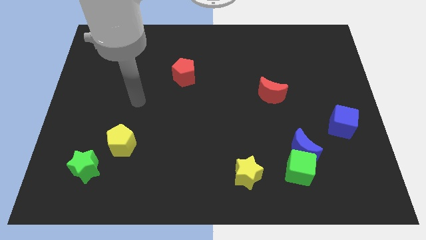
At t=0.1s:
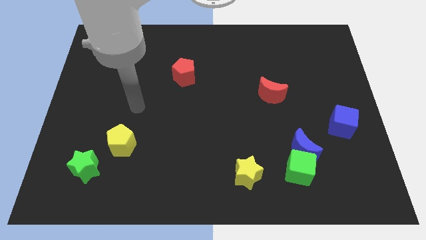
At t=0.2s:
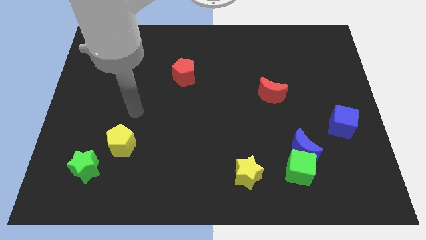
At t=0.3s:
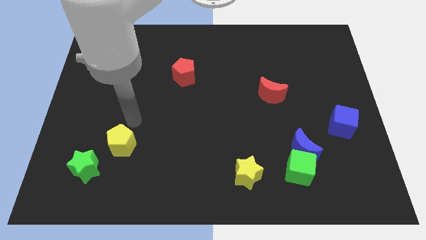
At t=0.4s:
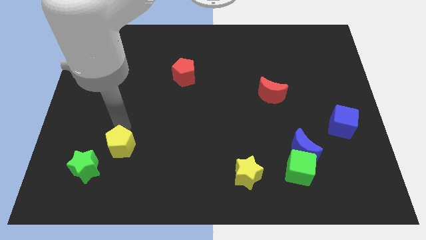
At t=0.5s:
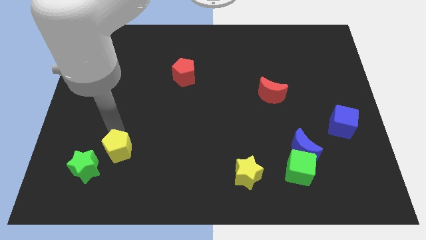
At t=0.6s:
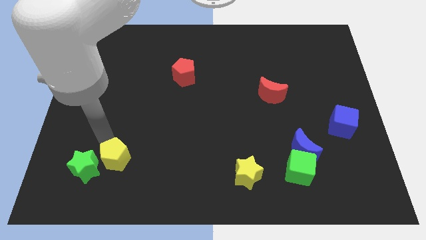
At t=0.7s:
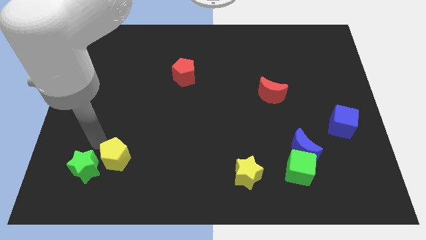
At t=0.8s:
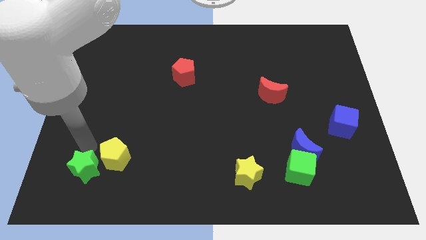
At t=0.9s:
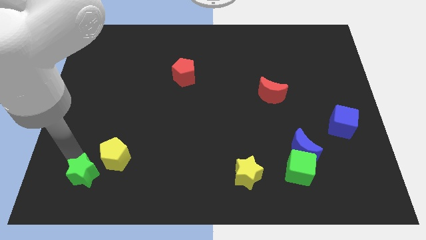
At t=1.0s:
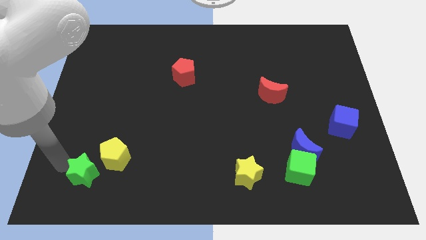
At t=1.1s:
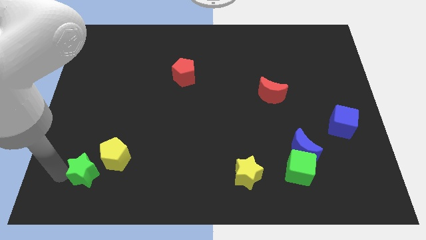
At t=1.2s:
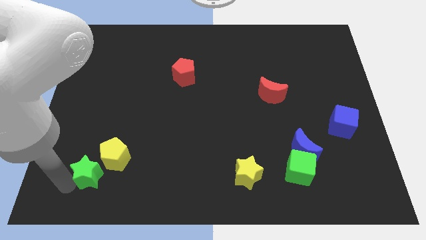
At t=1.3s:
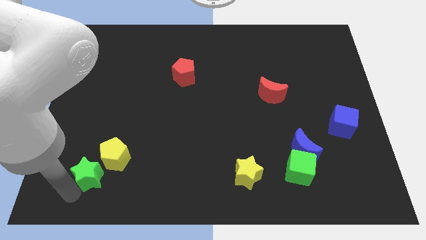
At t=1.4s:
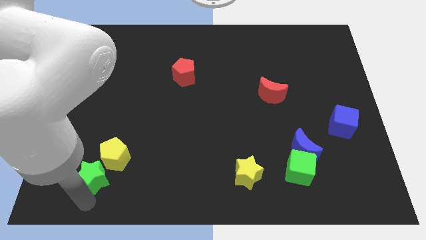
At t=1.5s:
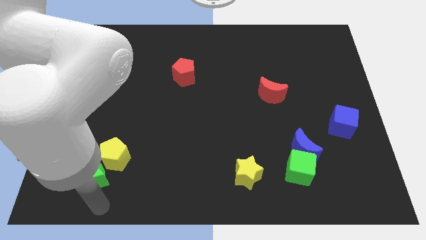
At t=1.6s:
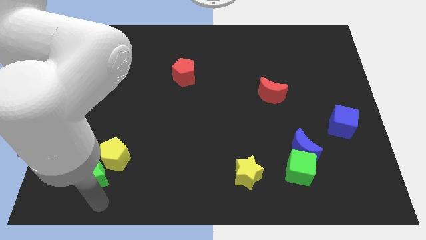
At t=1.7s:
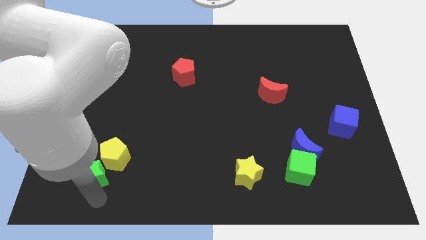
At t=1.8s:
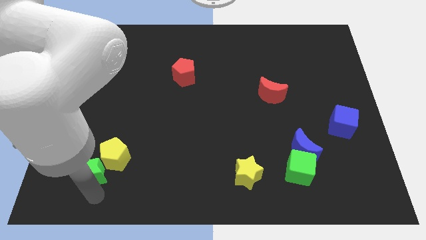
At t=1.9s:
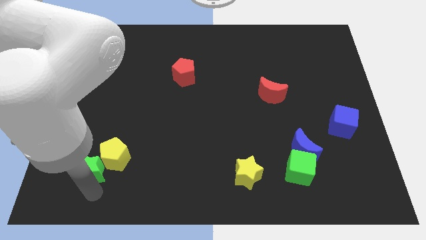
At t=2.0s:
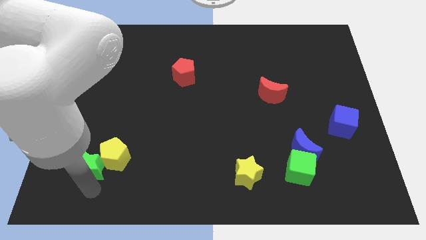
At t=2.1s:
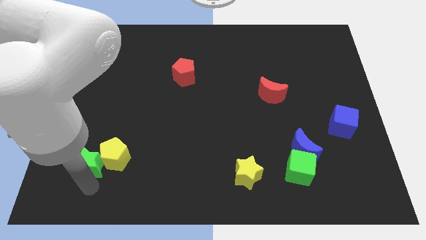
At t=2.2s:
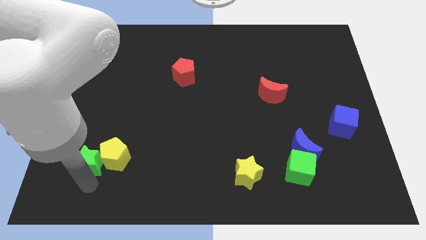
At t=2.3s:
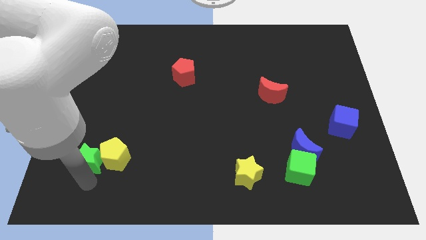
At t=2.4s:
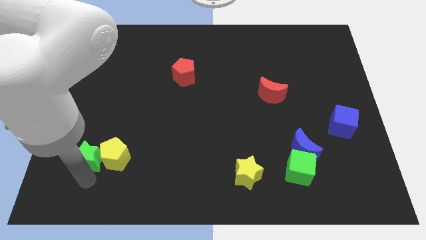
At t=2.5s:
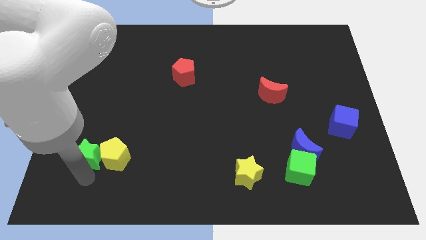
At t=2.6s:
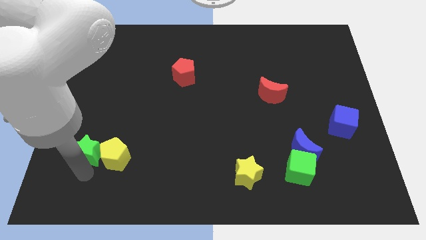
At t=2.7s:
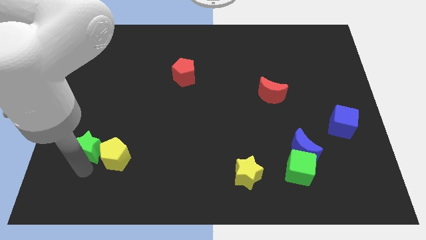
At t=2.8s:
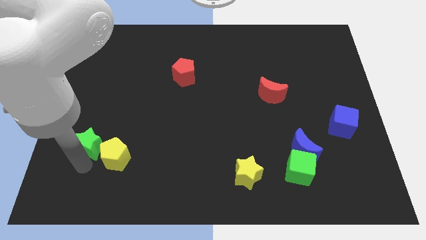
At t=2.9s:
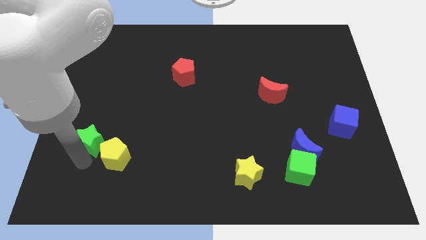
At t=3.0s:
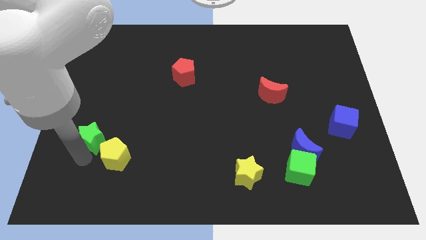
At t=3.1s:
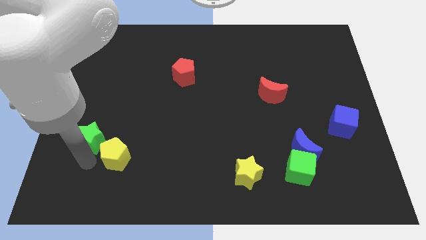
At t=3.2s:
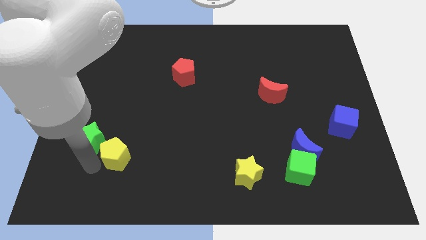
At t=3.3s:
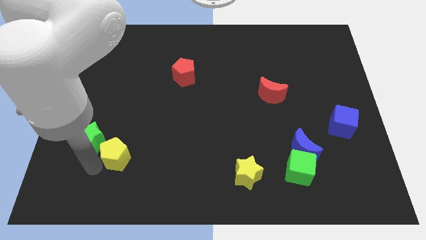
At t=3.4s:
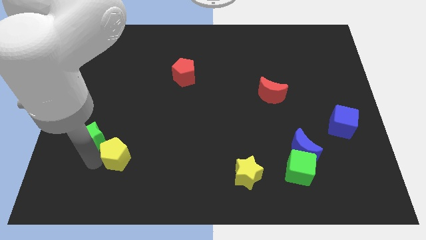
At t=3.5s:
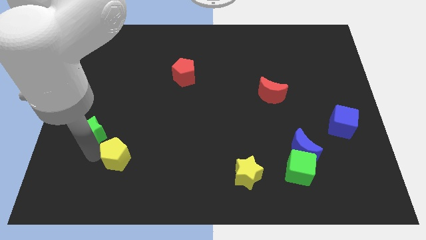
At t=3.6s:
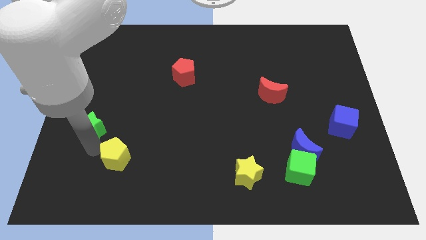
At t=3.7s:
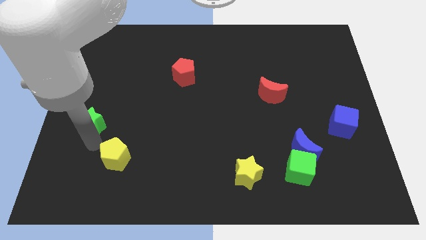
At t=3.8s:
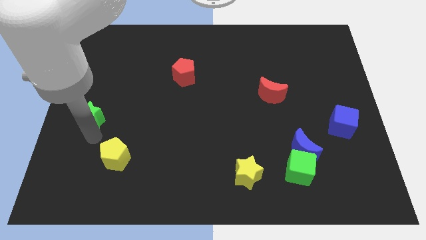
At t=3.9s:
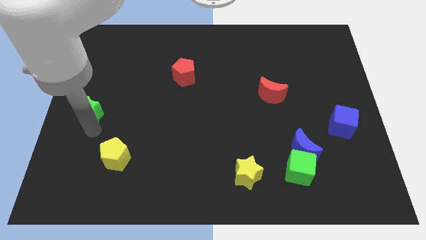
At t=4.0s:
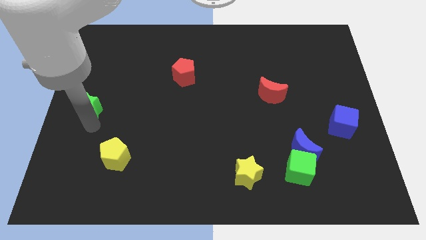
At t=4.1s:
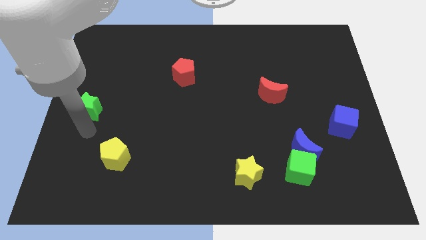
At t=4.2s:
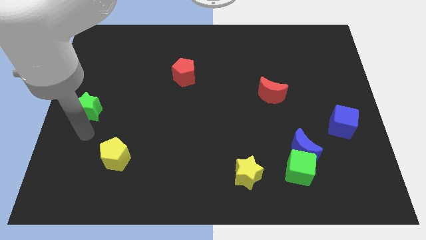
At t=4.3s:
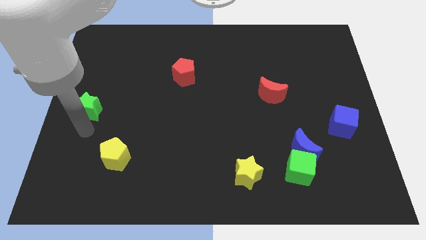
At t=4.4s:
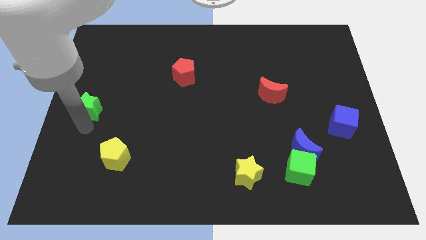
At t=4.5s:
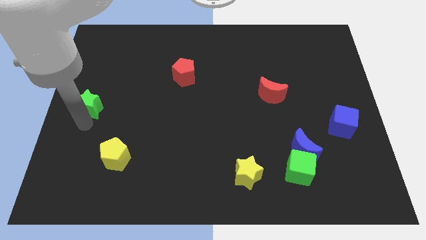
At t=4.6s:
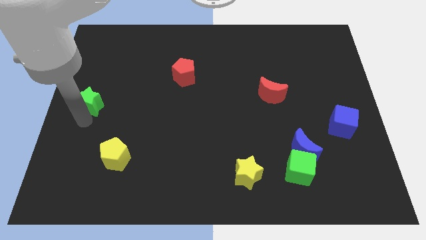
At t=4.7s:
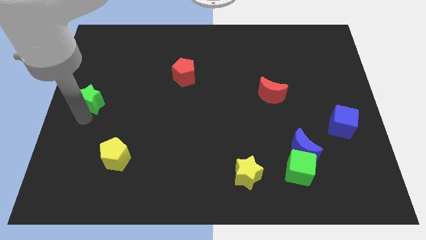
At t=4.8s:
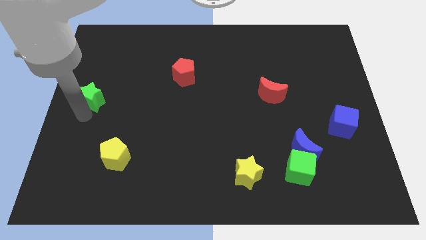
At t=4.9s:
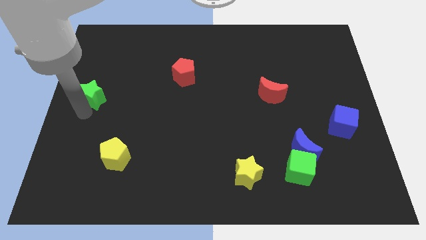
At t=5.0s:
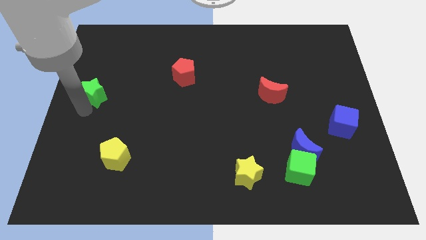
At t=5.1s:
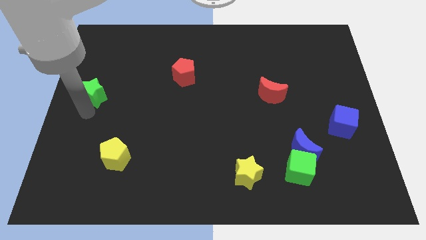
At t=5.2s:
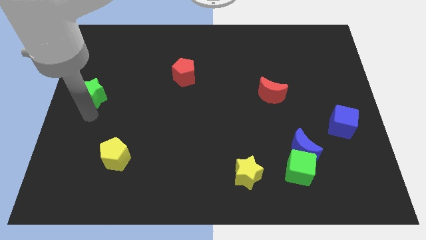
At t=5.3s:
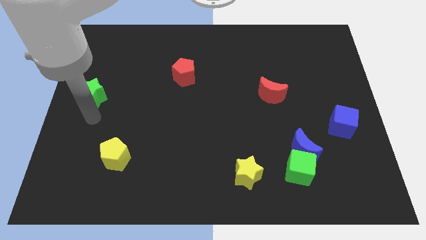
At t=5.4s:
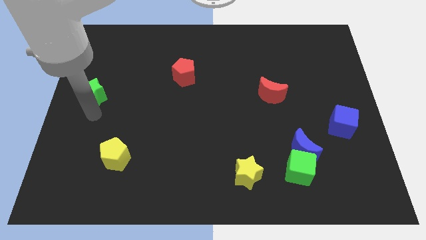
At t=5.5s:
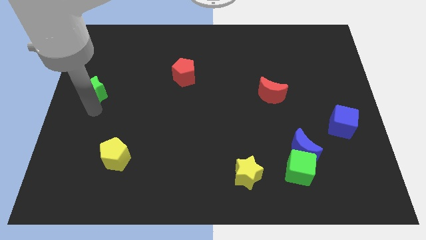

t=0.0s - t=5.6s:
move the green star upwards

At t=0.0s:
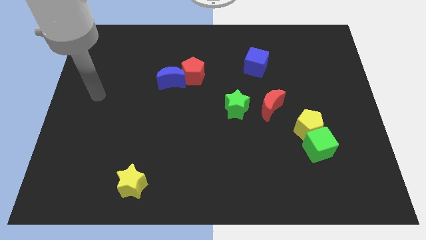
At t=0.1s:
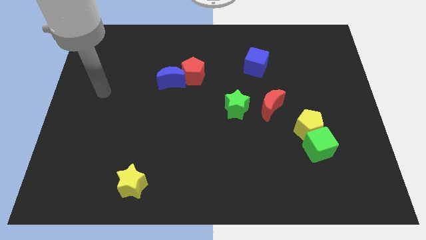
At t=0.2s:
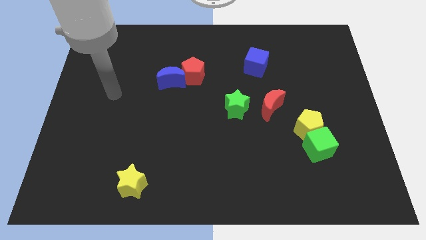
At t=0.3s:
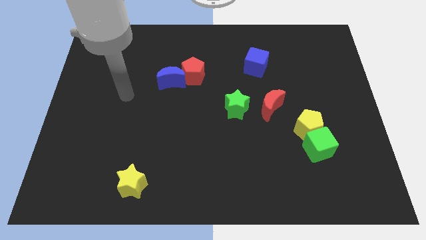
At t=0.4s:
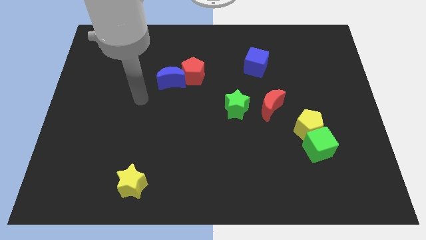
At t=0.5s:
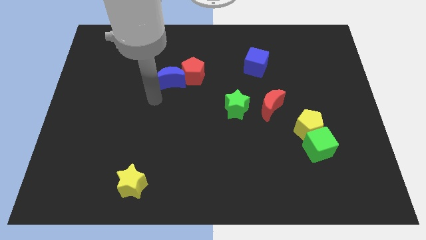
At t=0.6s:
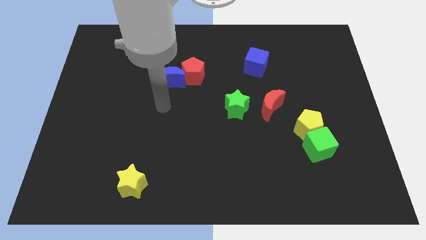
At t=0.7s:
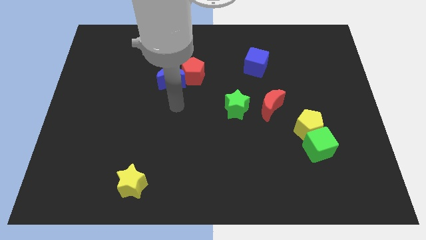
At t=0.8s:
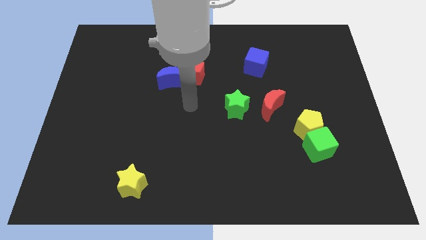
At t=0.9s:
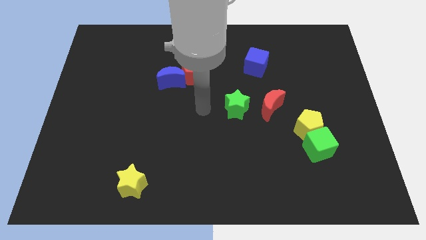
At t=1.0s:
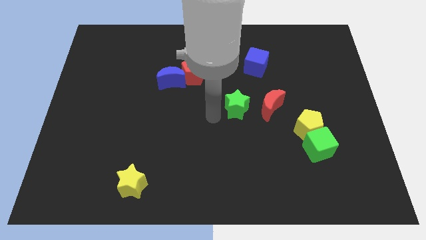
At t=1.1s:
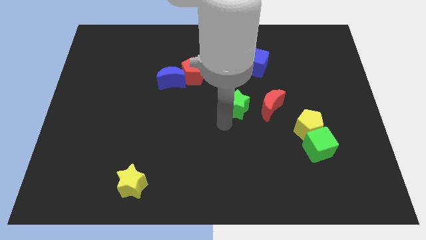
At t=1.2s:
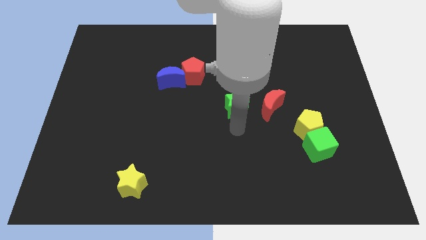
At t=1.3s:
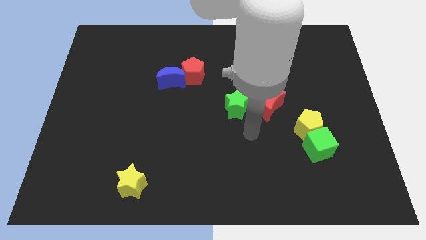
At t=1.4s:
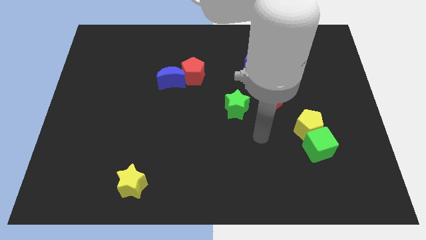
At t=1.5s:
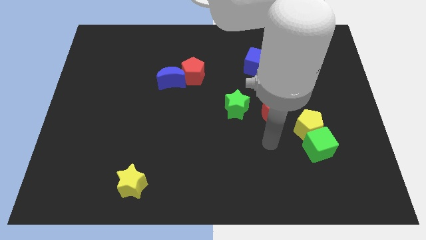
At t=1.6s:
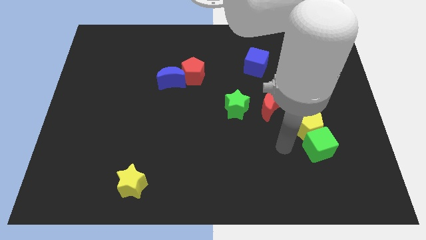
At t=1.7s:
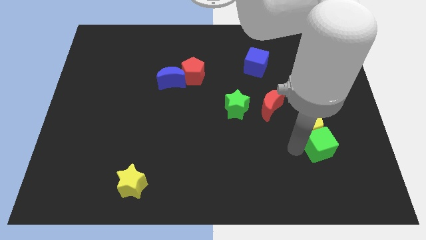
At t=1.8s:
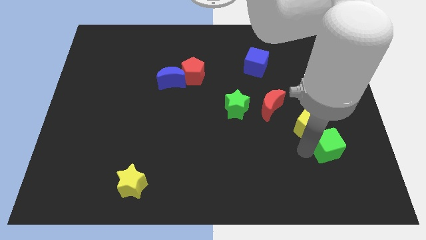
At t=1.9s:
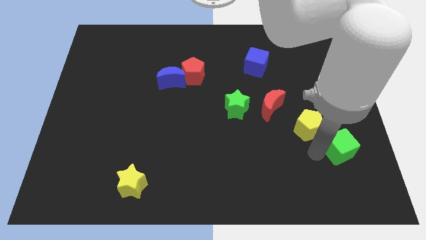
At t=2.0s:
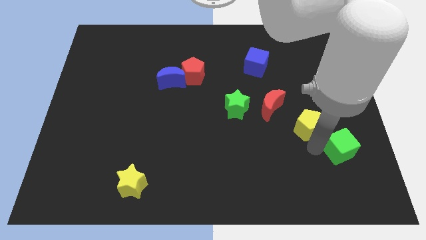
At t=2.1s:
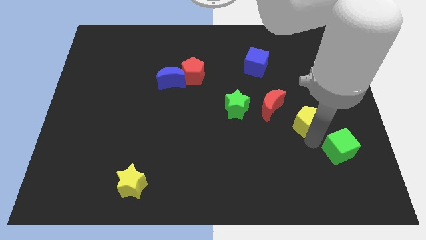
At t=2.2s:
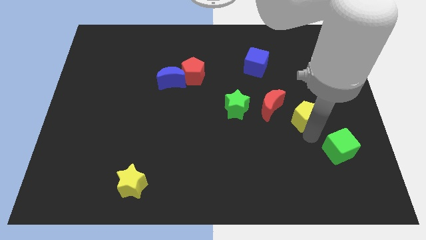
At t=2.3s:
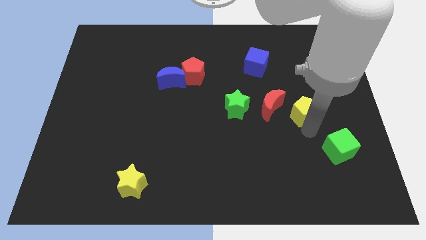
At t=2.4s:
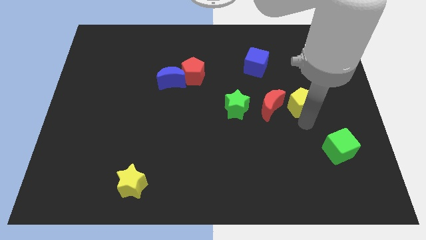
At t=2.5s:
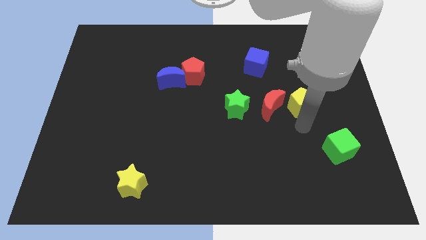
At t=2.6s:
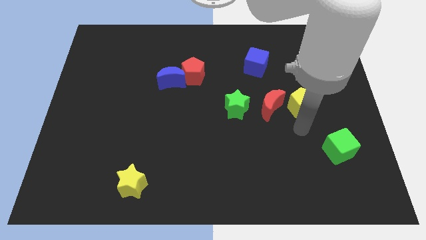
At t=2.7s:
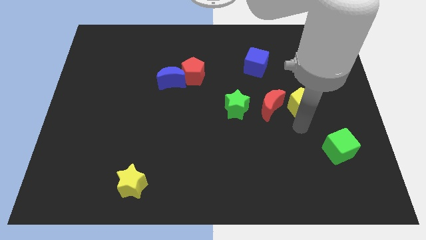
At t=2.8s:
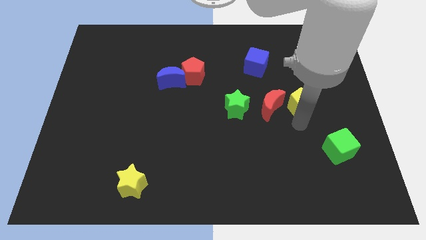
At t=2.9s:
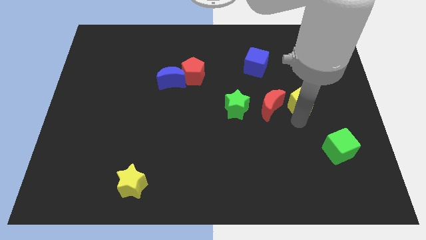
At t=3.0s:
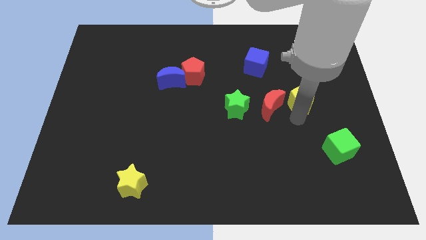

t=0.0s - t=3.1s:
move the yellow pentagon somewhat up
